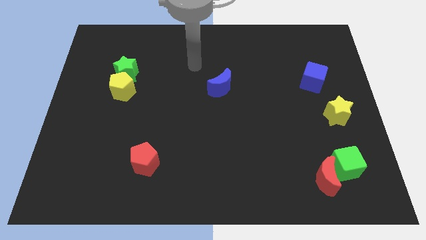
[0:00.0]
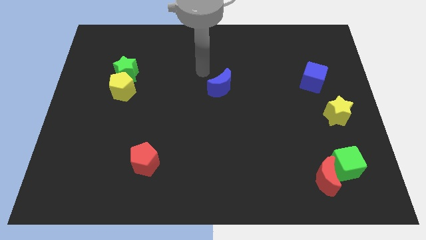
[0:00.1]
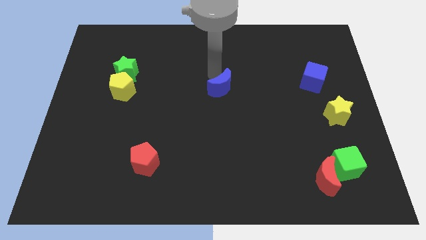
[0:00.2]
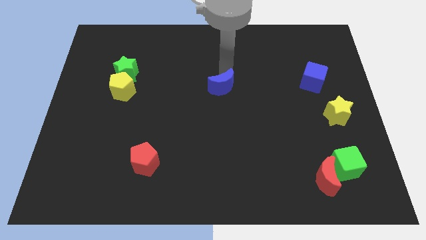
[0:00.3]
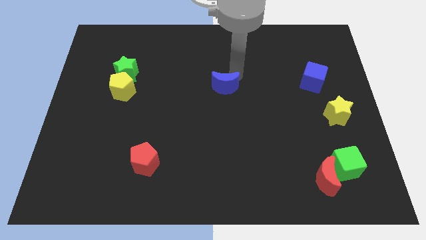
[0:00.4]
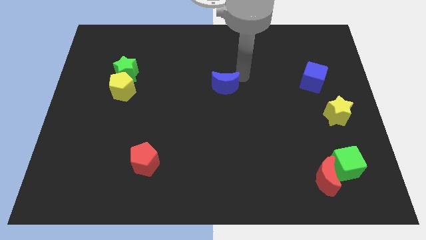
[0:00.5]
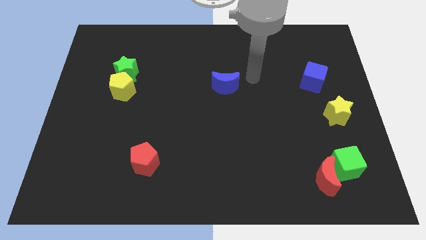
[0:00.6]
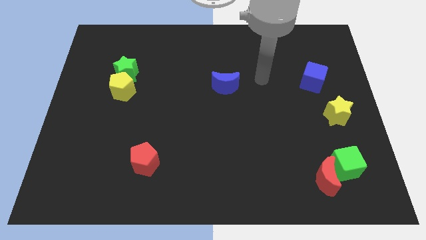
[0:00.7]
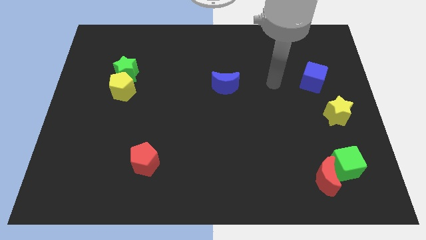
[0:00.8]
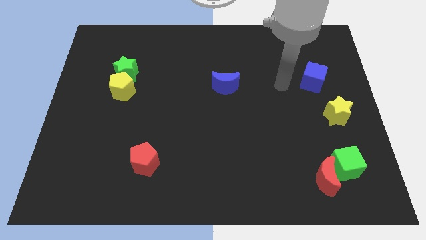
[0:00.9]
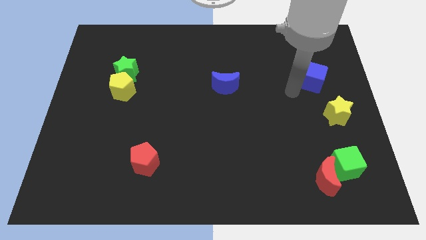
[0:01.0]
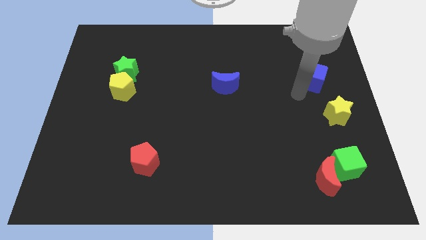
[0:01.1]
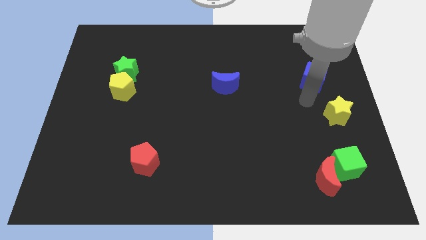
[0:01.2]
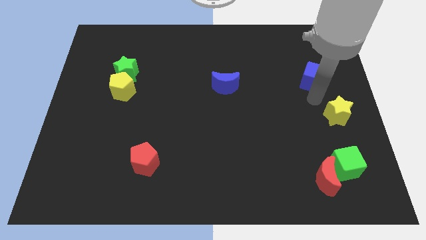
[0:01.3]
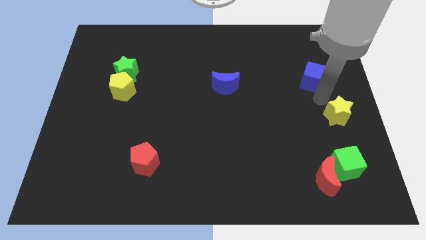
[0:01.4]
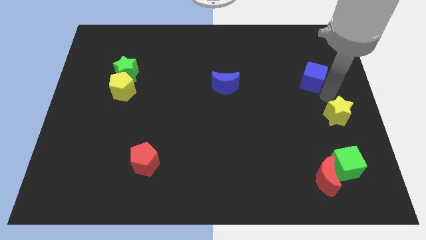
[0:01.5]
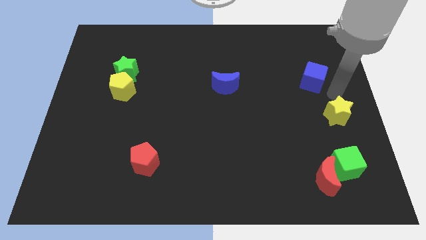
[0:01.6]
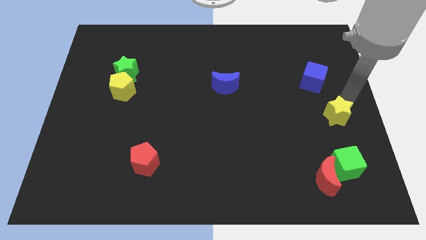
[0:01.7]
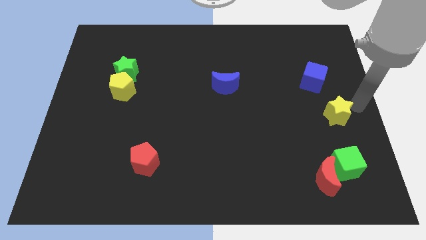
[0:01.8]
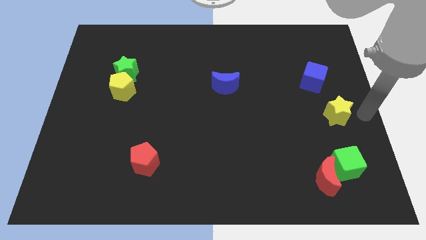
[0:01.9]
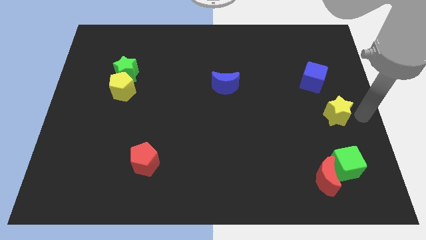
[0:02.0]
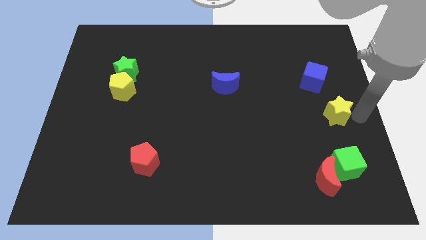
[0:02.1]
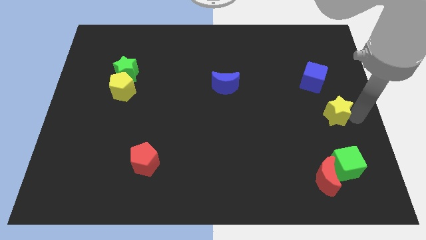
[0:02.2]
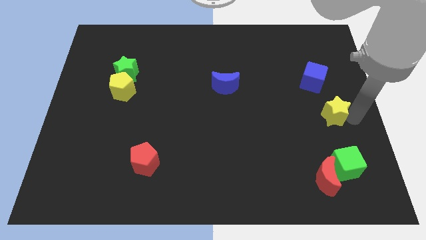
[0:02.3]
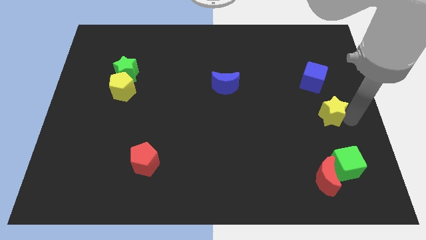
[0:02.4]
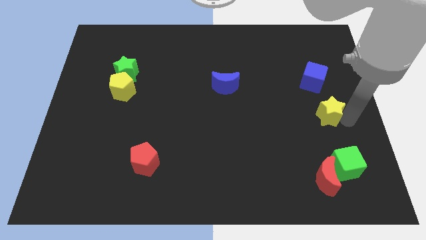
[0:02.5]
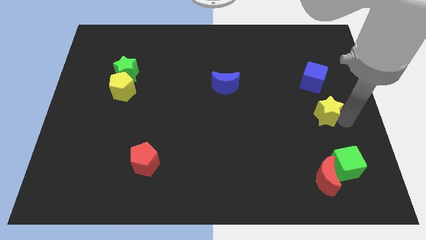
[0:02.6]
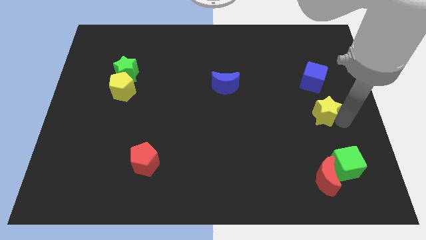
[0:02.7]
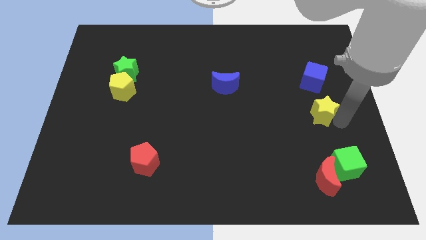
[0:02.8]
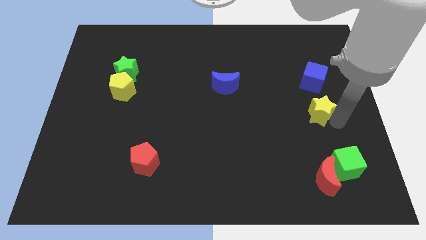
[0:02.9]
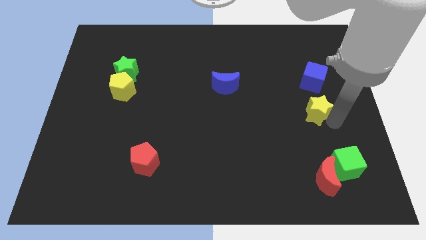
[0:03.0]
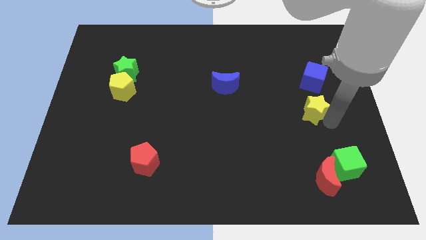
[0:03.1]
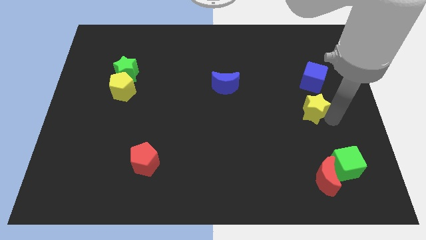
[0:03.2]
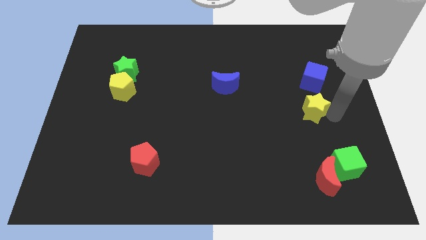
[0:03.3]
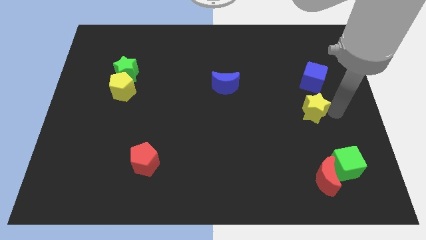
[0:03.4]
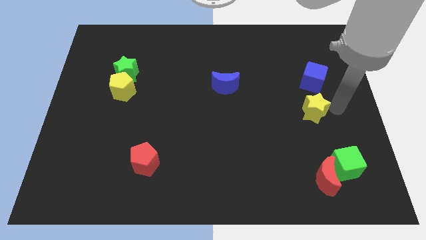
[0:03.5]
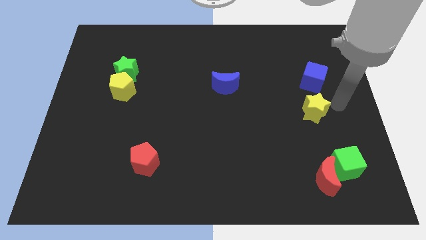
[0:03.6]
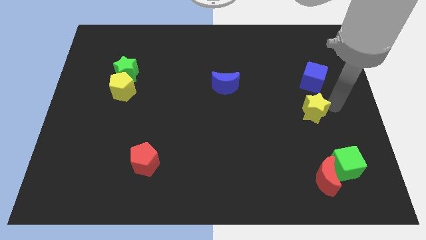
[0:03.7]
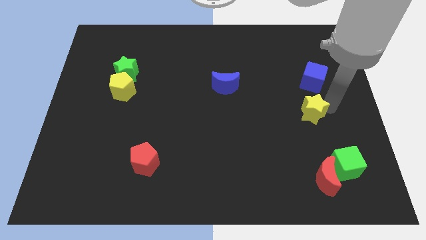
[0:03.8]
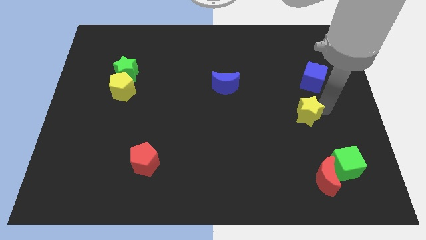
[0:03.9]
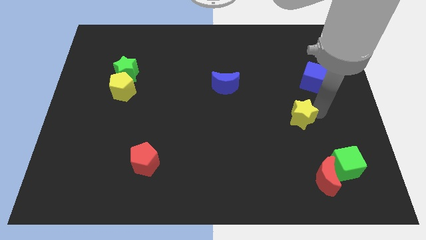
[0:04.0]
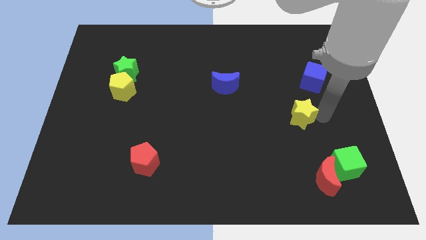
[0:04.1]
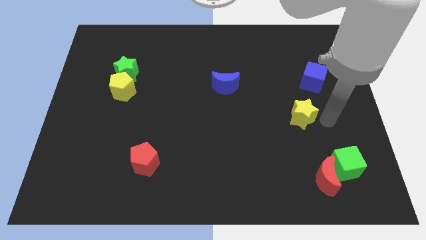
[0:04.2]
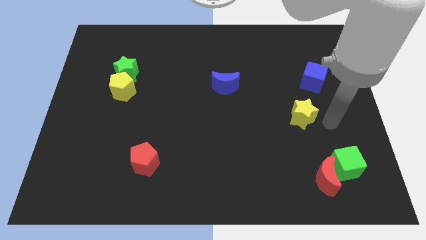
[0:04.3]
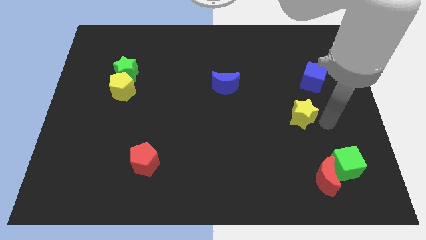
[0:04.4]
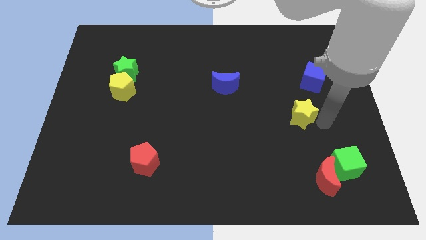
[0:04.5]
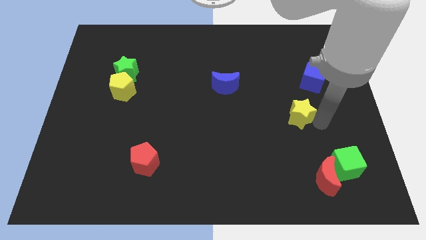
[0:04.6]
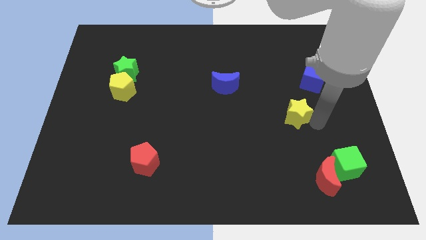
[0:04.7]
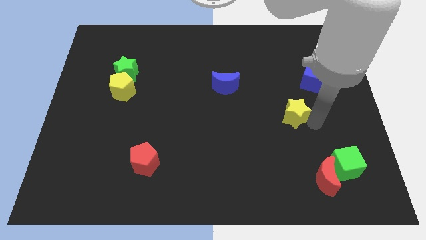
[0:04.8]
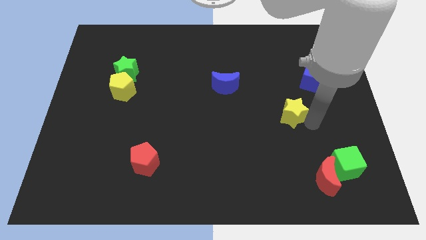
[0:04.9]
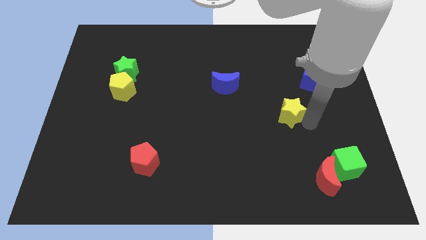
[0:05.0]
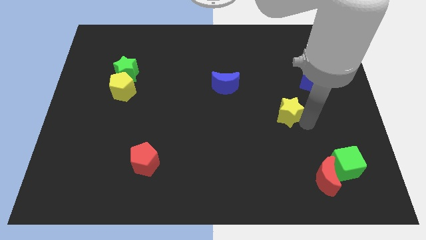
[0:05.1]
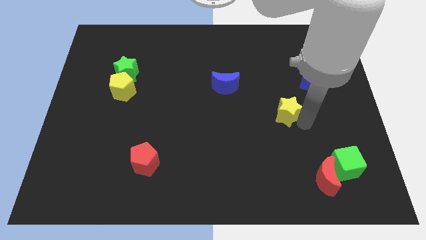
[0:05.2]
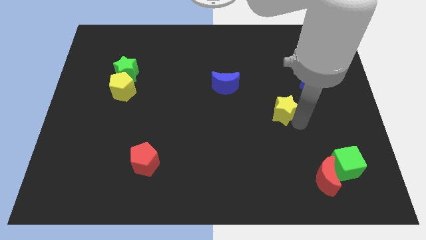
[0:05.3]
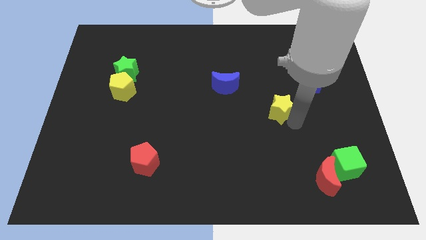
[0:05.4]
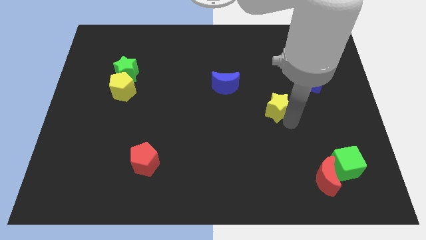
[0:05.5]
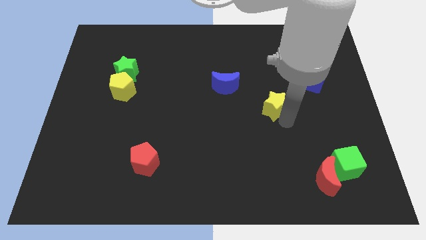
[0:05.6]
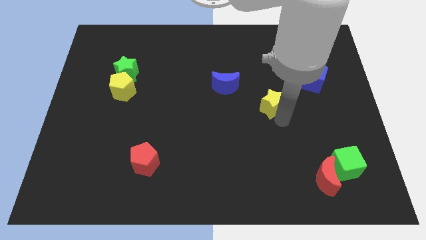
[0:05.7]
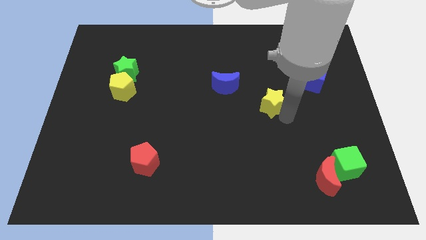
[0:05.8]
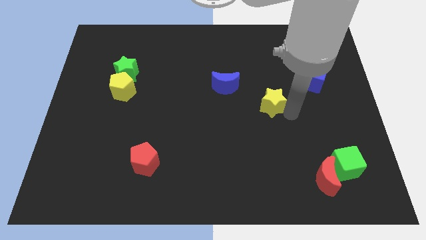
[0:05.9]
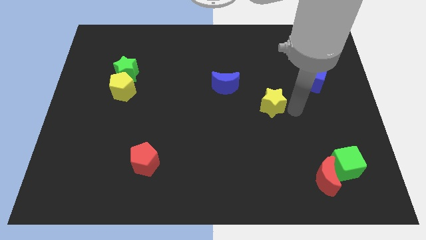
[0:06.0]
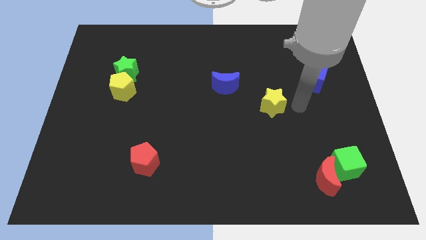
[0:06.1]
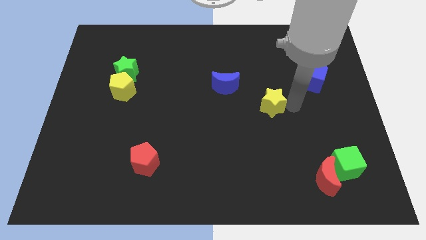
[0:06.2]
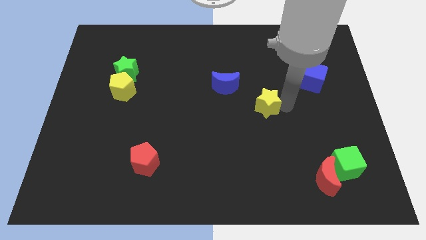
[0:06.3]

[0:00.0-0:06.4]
push the yellow star to the center
